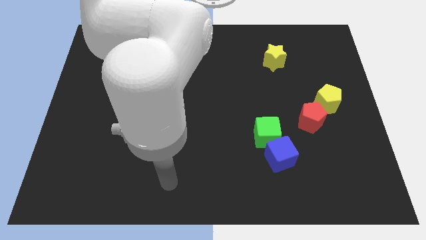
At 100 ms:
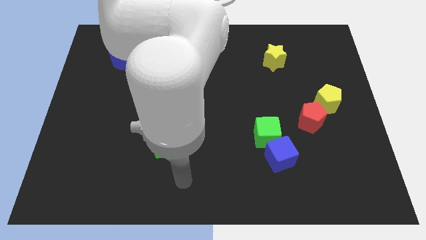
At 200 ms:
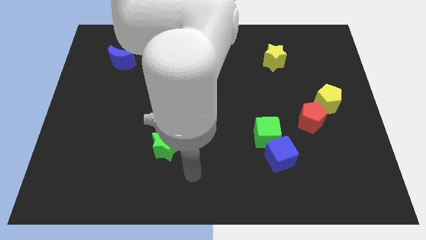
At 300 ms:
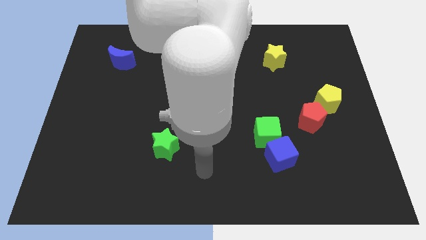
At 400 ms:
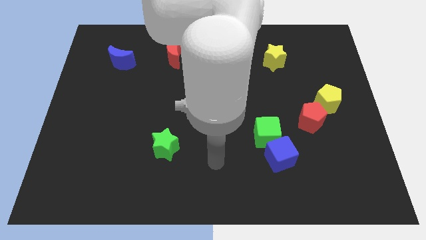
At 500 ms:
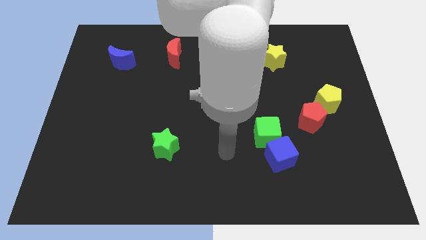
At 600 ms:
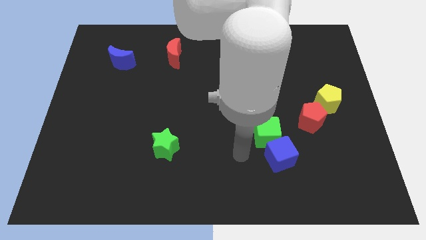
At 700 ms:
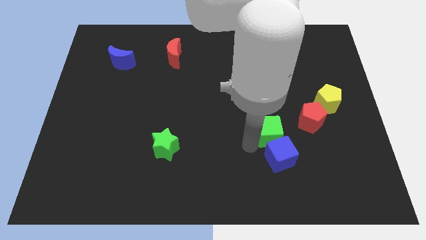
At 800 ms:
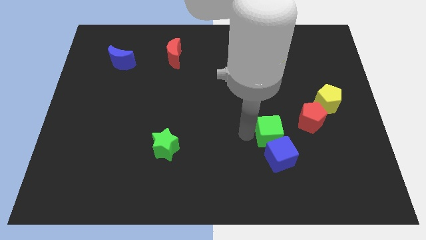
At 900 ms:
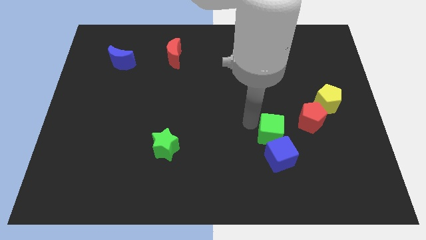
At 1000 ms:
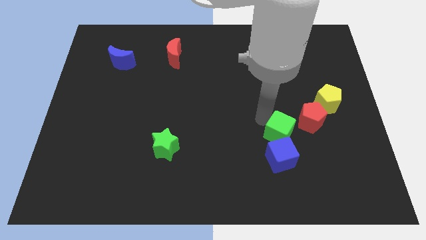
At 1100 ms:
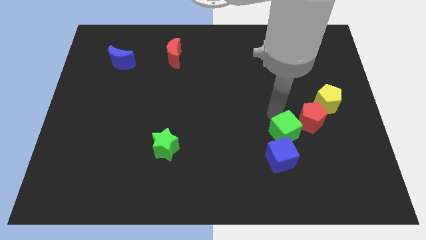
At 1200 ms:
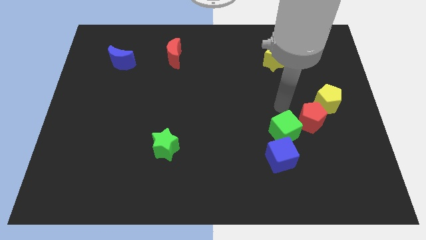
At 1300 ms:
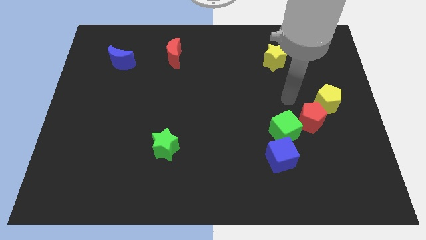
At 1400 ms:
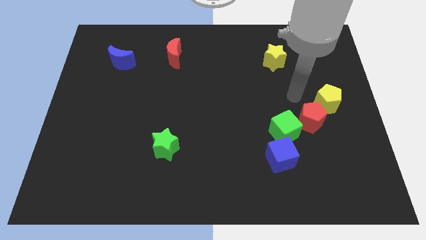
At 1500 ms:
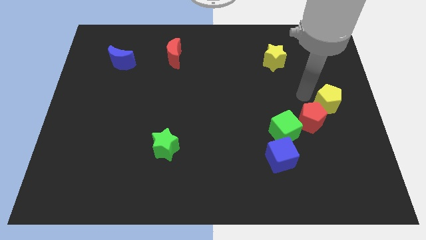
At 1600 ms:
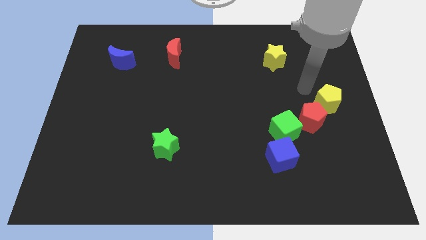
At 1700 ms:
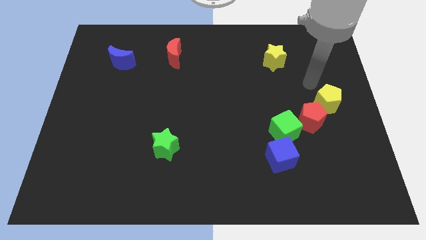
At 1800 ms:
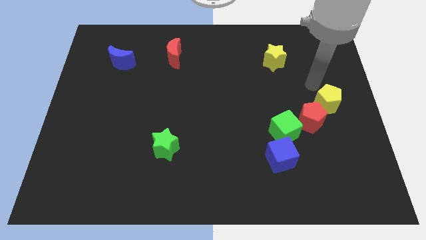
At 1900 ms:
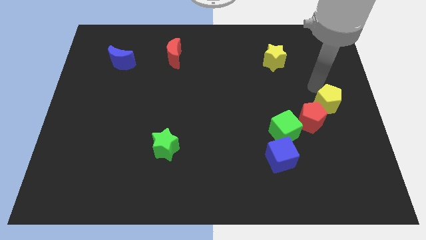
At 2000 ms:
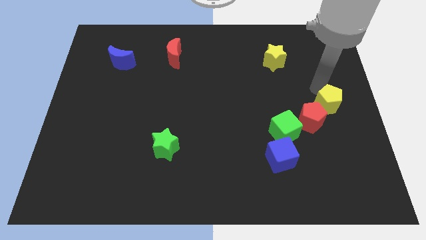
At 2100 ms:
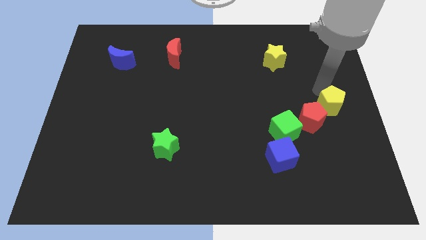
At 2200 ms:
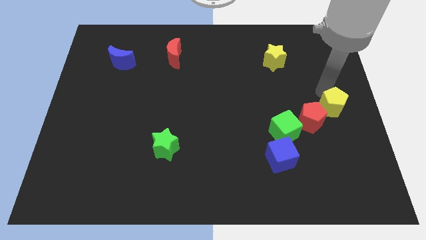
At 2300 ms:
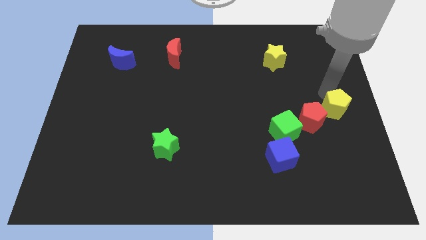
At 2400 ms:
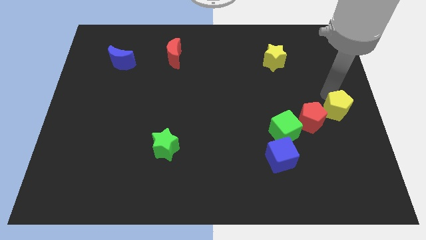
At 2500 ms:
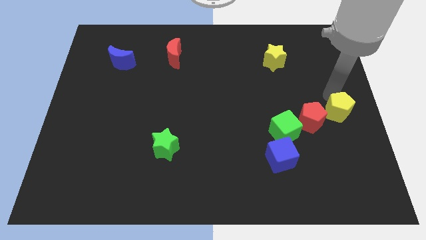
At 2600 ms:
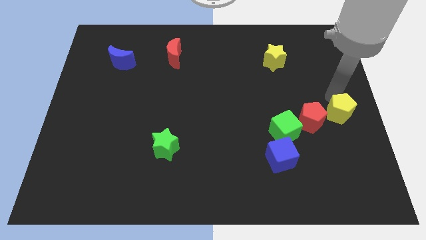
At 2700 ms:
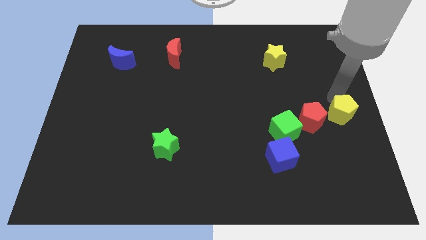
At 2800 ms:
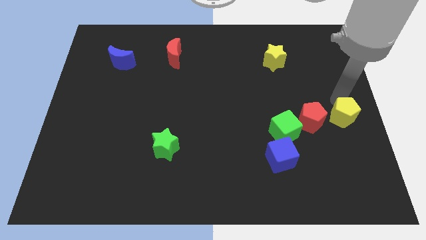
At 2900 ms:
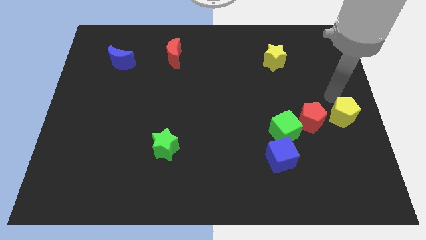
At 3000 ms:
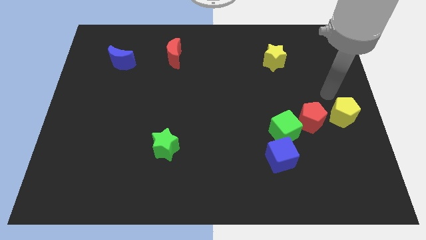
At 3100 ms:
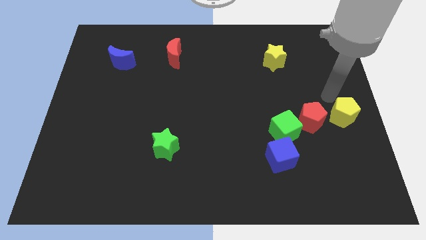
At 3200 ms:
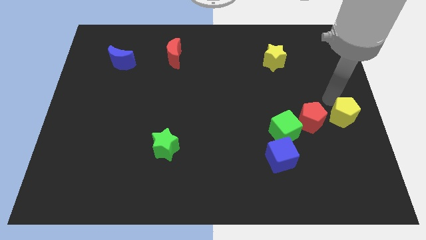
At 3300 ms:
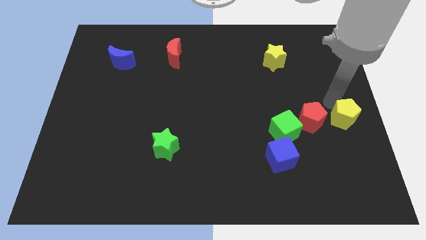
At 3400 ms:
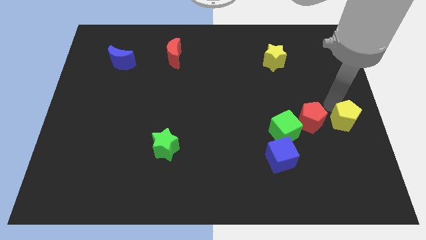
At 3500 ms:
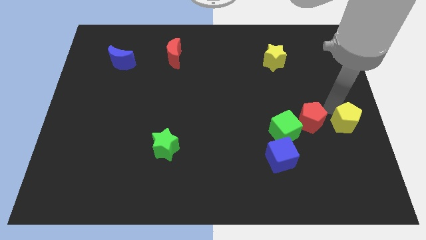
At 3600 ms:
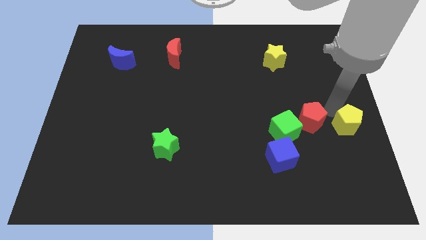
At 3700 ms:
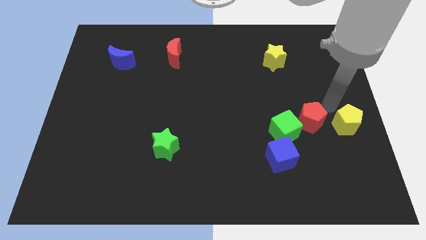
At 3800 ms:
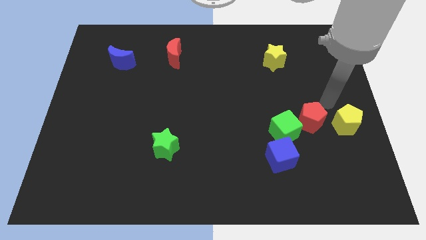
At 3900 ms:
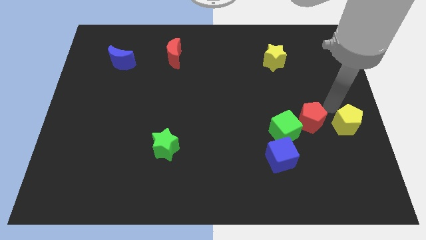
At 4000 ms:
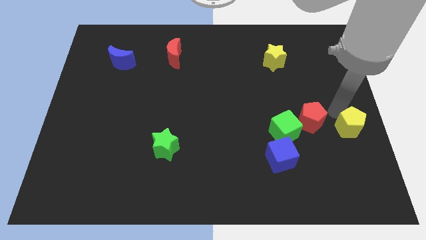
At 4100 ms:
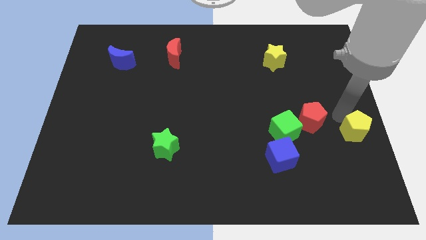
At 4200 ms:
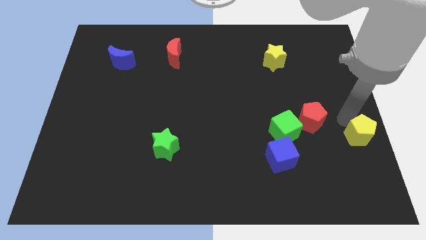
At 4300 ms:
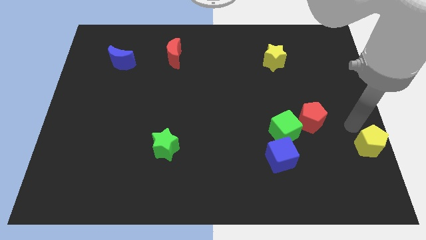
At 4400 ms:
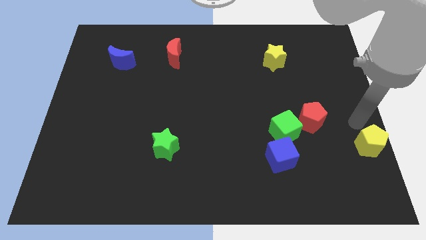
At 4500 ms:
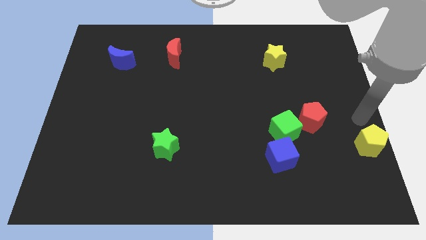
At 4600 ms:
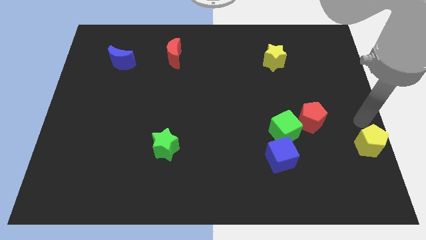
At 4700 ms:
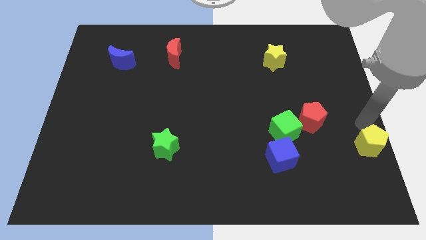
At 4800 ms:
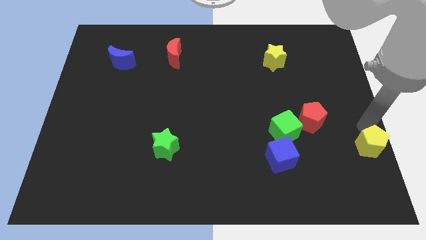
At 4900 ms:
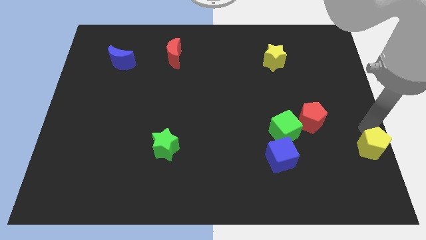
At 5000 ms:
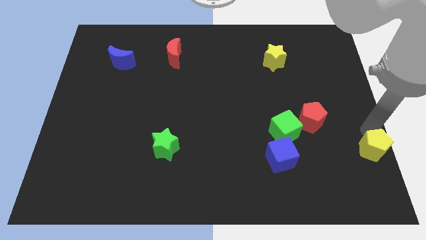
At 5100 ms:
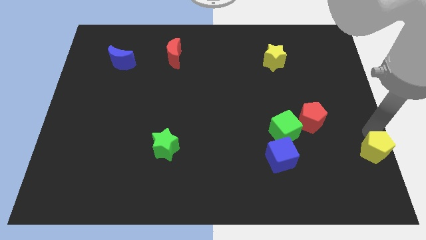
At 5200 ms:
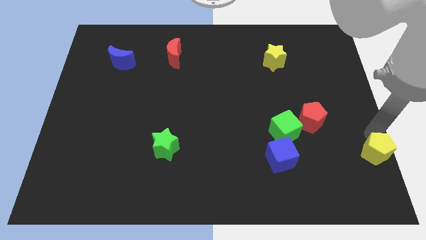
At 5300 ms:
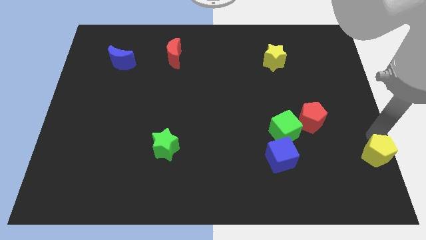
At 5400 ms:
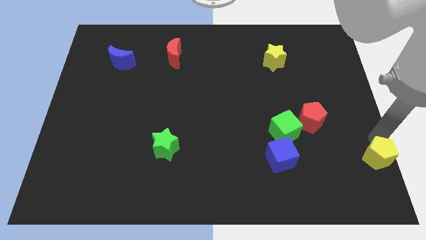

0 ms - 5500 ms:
move the yellow pentagon to the bottom right corner
